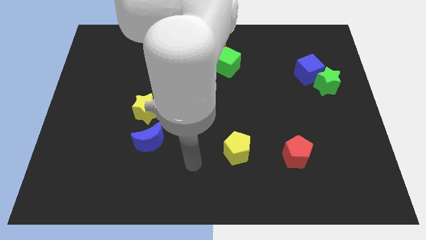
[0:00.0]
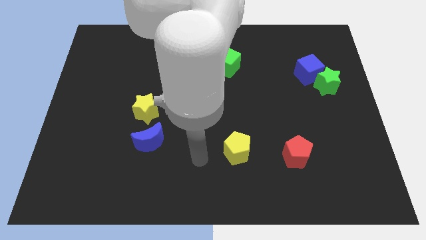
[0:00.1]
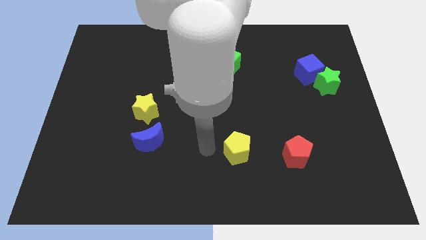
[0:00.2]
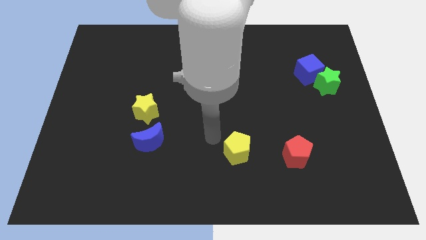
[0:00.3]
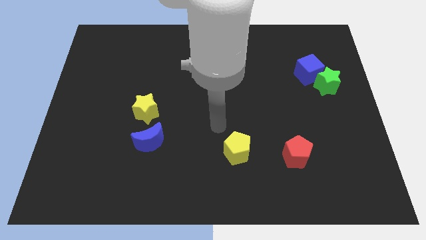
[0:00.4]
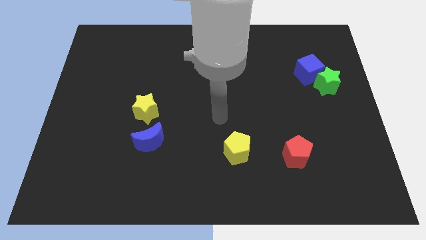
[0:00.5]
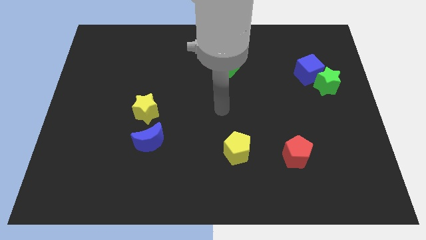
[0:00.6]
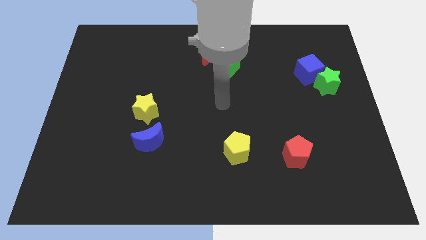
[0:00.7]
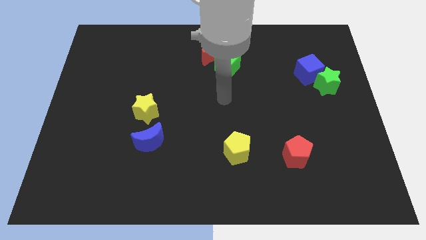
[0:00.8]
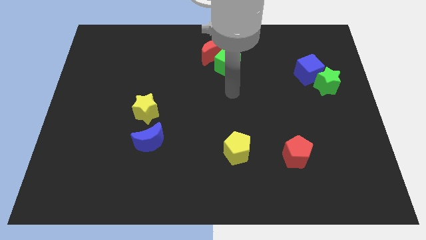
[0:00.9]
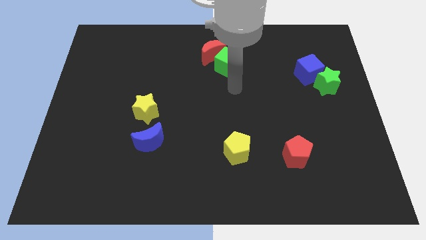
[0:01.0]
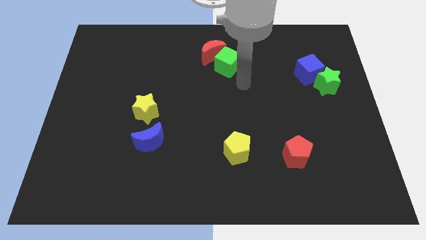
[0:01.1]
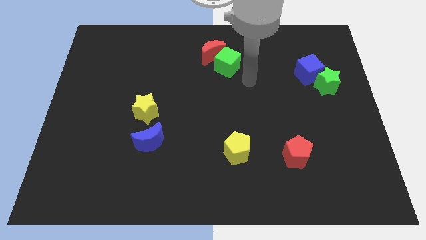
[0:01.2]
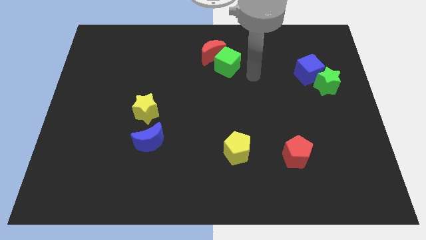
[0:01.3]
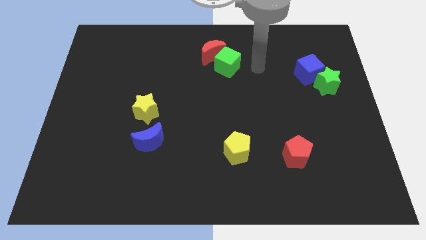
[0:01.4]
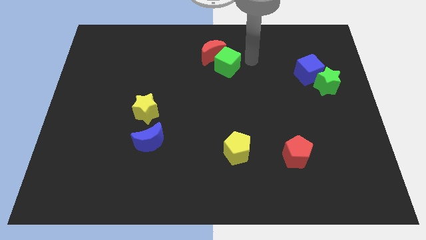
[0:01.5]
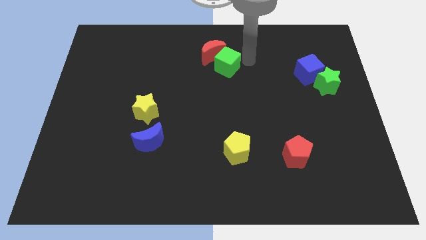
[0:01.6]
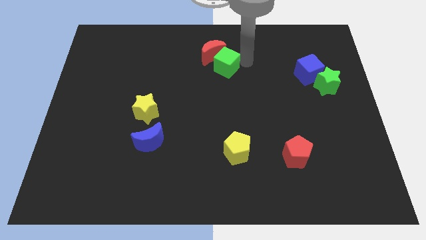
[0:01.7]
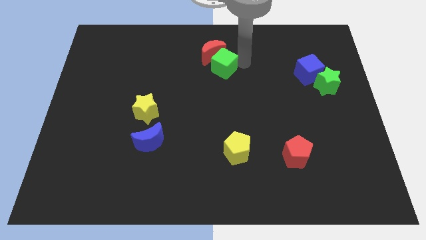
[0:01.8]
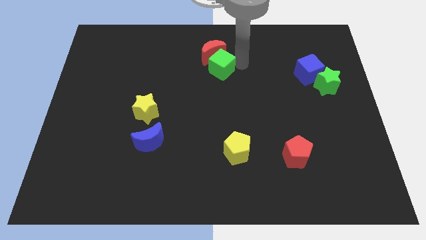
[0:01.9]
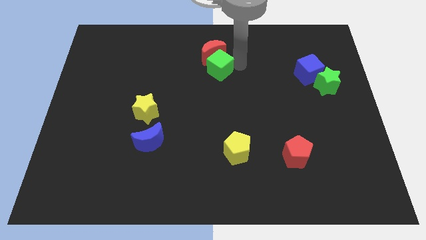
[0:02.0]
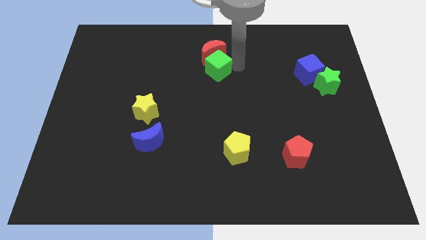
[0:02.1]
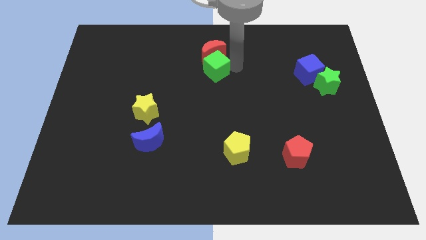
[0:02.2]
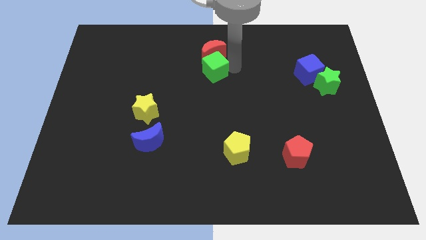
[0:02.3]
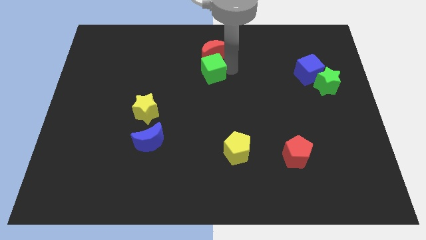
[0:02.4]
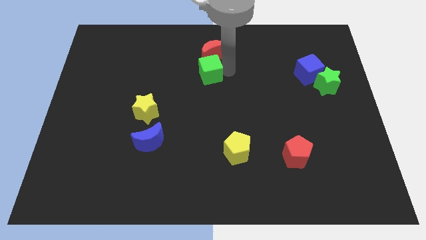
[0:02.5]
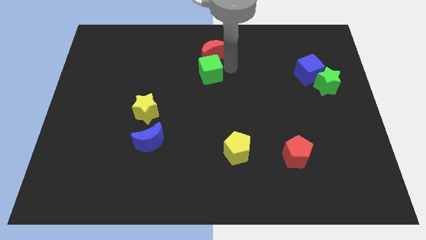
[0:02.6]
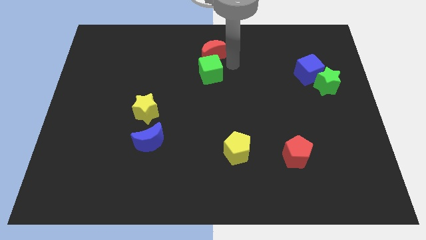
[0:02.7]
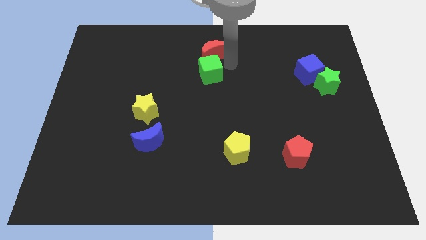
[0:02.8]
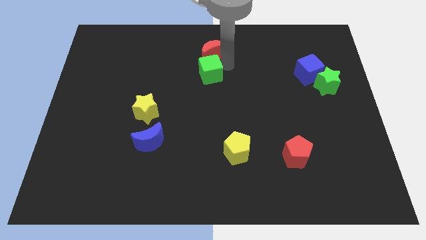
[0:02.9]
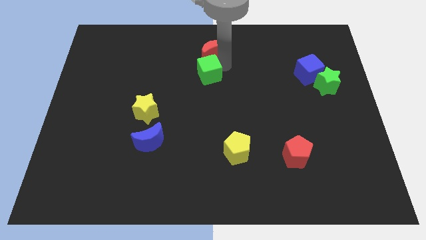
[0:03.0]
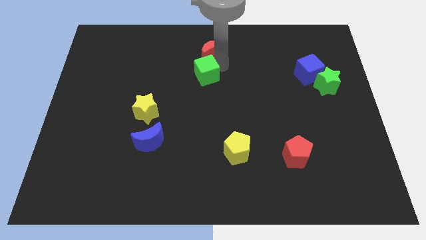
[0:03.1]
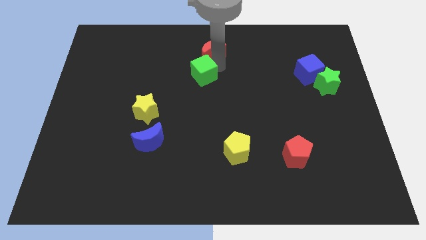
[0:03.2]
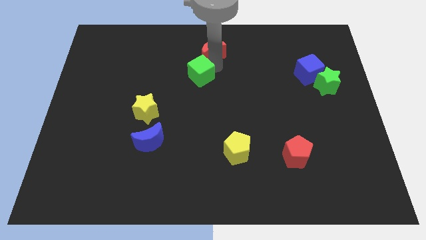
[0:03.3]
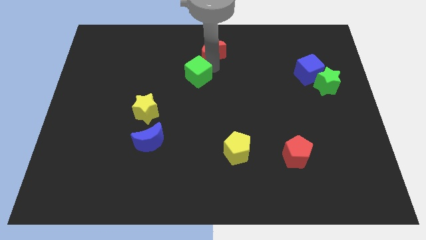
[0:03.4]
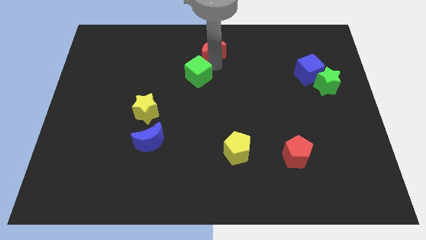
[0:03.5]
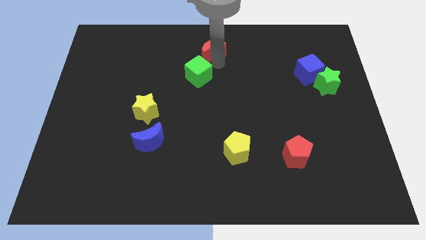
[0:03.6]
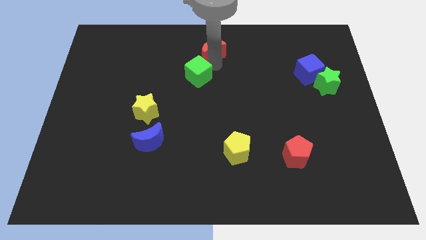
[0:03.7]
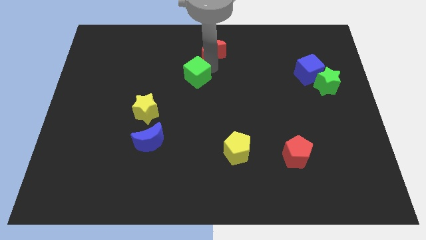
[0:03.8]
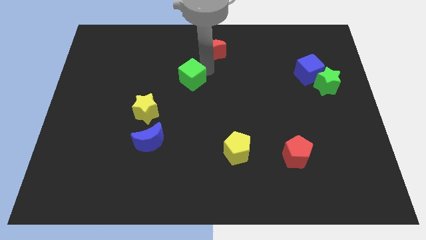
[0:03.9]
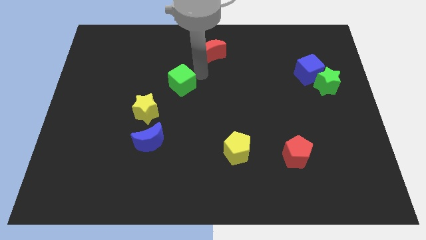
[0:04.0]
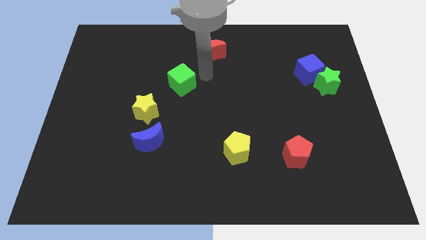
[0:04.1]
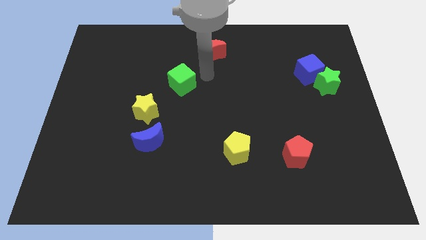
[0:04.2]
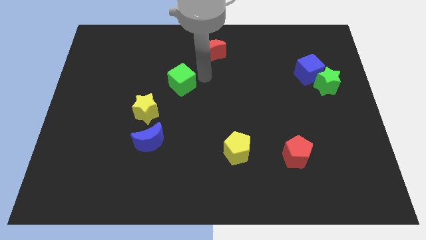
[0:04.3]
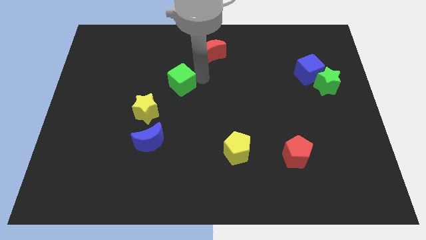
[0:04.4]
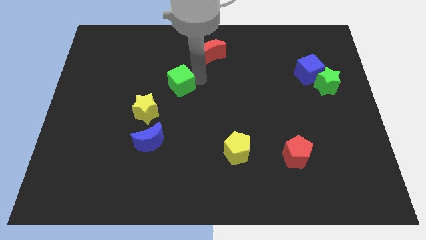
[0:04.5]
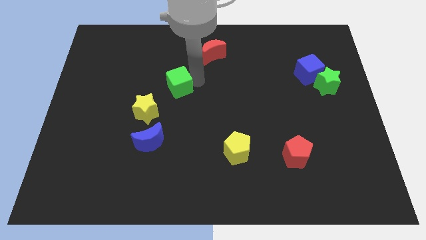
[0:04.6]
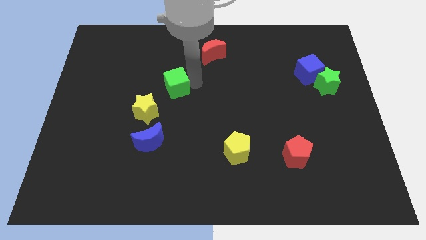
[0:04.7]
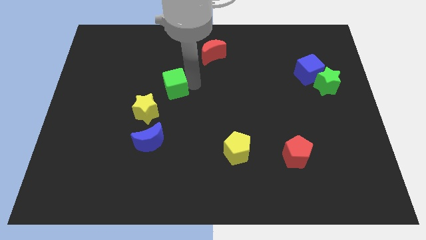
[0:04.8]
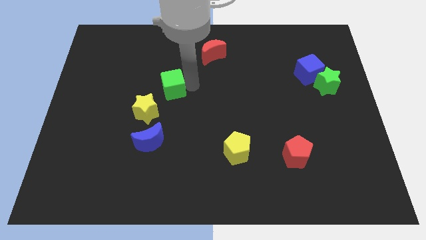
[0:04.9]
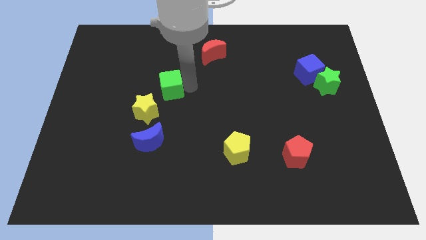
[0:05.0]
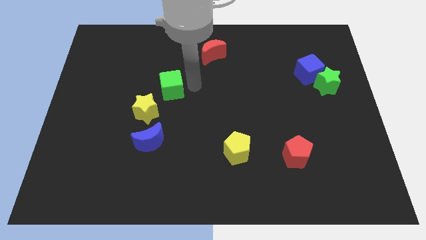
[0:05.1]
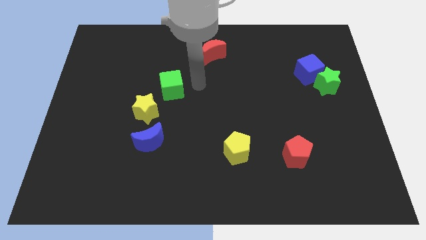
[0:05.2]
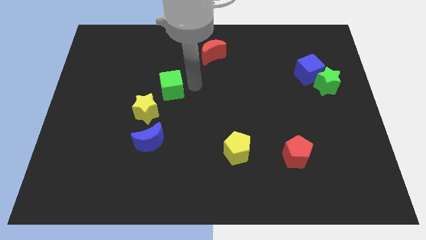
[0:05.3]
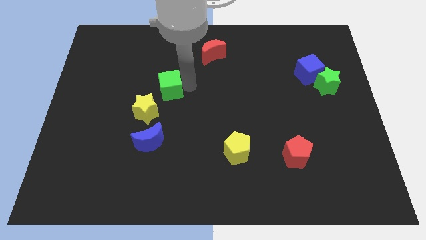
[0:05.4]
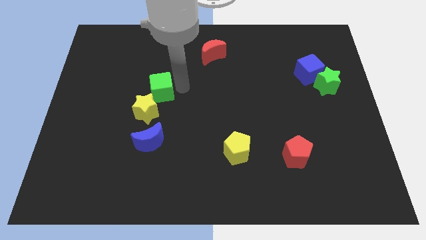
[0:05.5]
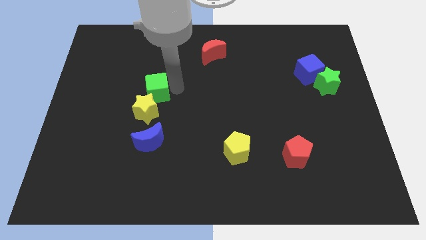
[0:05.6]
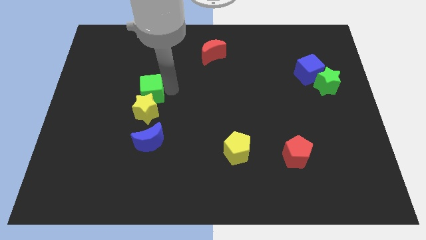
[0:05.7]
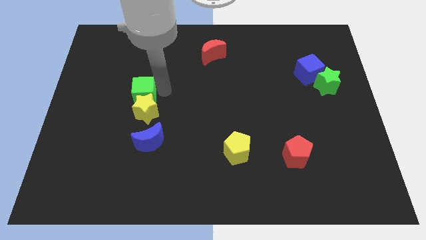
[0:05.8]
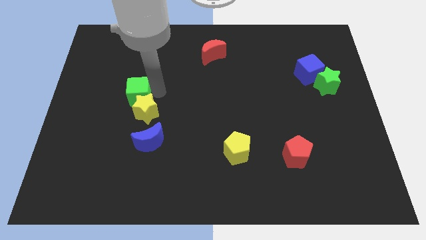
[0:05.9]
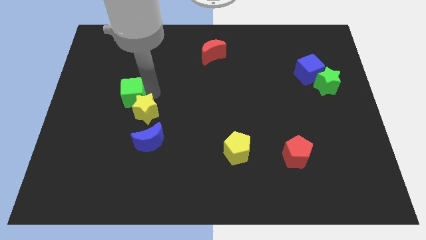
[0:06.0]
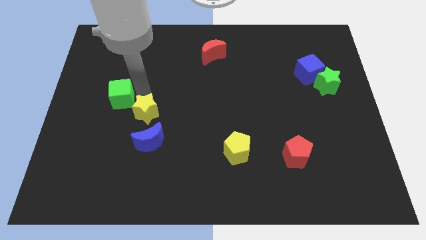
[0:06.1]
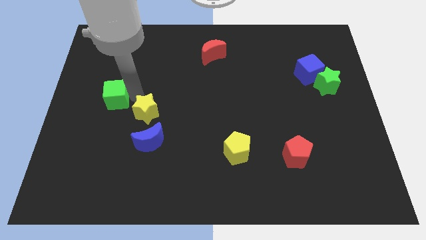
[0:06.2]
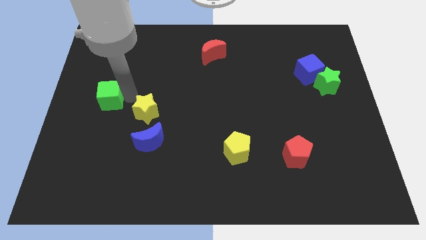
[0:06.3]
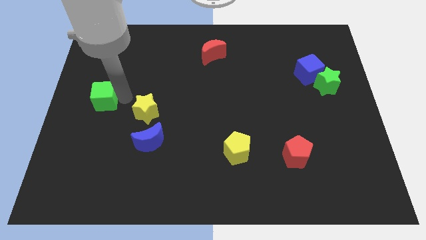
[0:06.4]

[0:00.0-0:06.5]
slide the green cube to the center left
